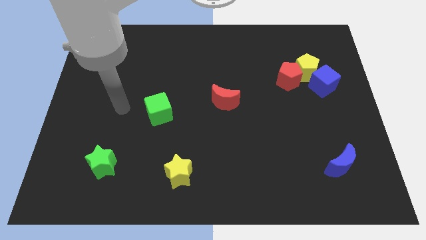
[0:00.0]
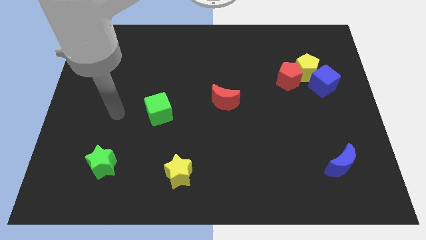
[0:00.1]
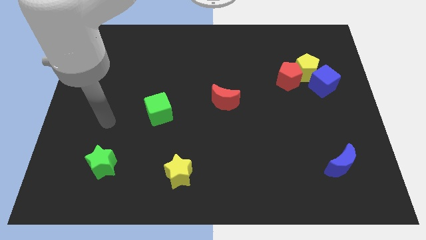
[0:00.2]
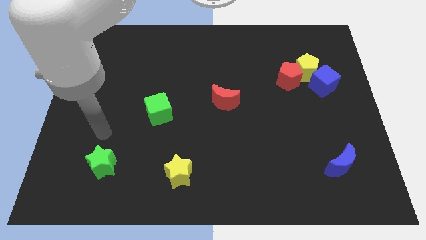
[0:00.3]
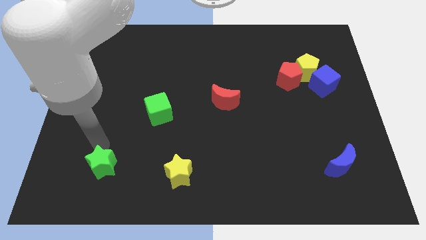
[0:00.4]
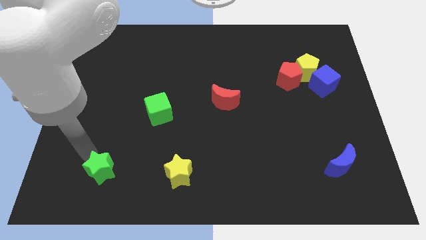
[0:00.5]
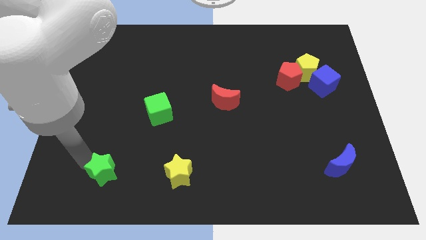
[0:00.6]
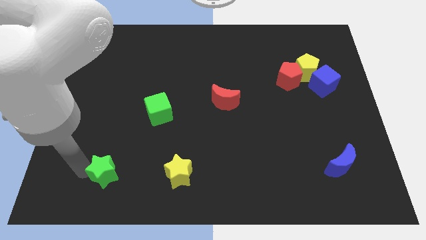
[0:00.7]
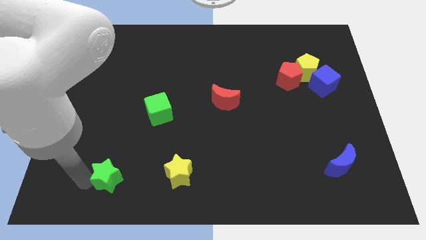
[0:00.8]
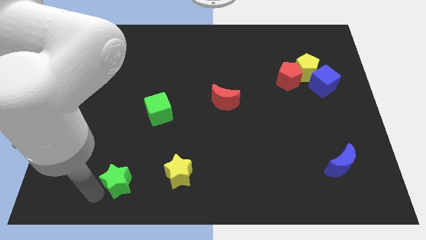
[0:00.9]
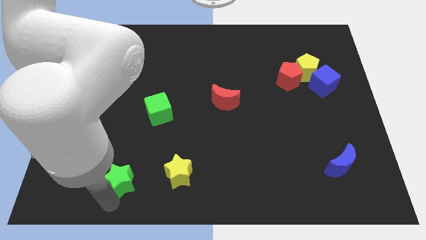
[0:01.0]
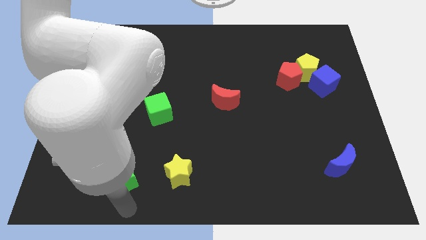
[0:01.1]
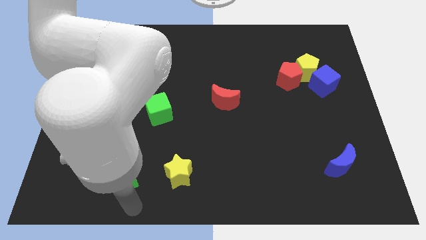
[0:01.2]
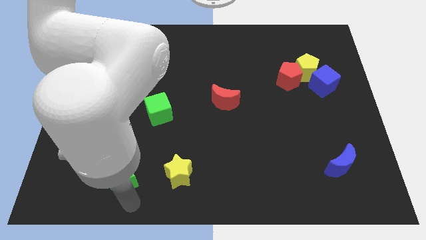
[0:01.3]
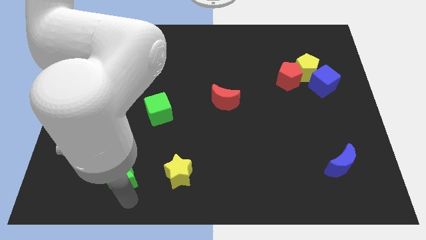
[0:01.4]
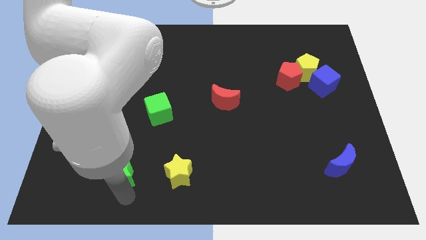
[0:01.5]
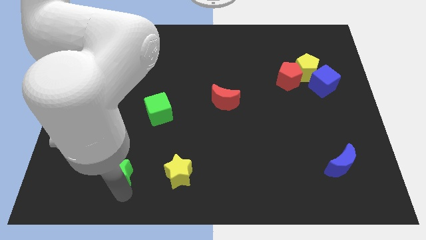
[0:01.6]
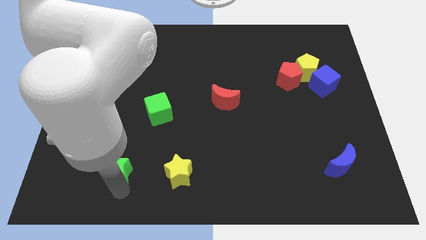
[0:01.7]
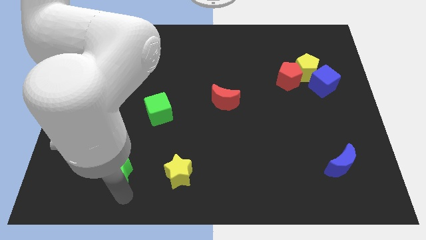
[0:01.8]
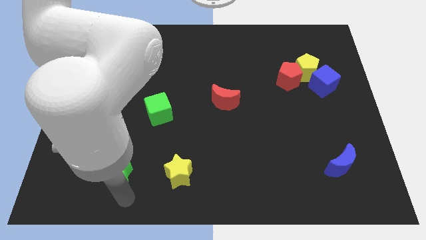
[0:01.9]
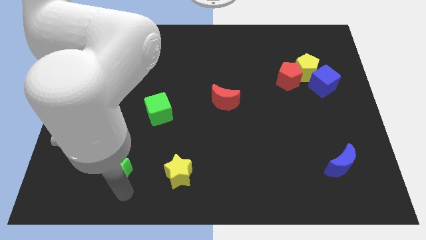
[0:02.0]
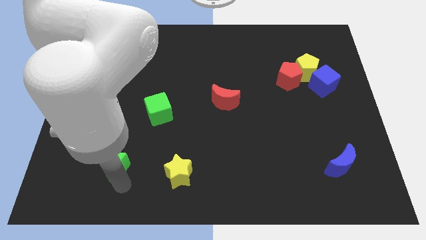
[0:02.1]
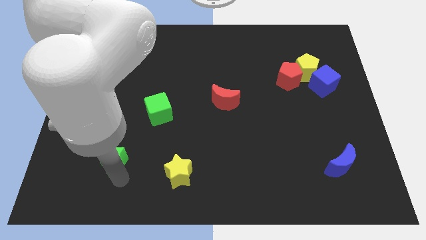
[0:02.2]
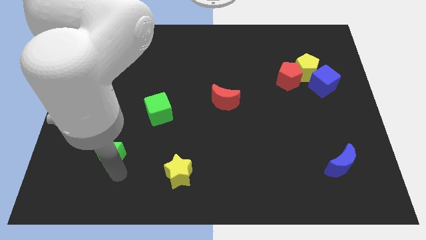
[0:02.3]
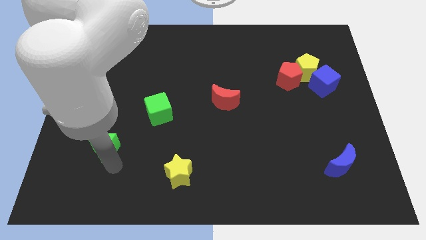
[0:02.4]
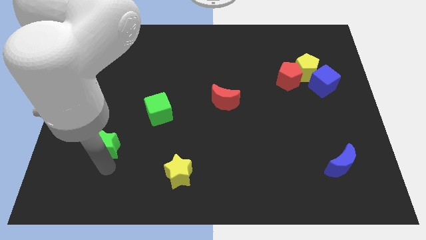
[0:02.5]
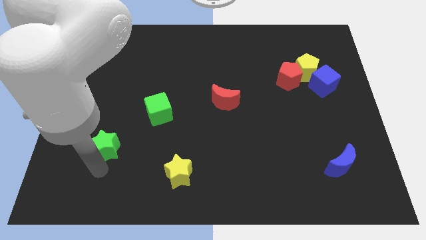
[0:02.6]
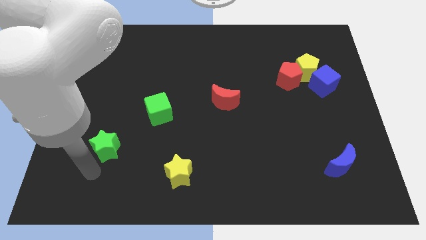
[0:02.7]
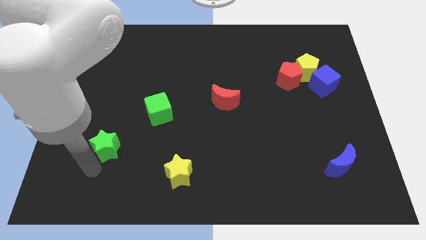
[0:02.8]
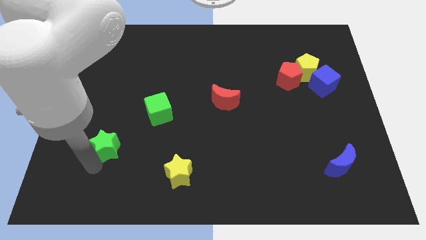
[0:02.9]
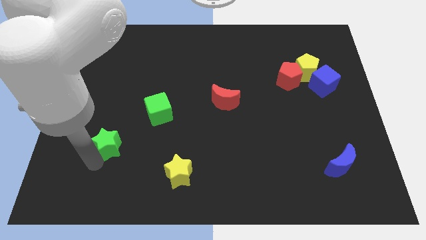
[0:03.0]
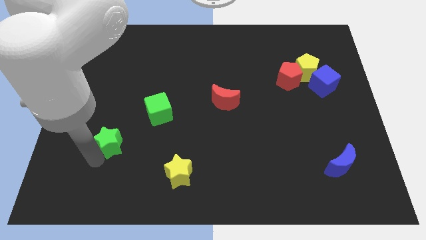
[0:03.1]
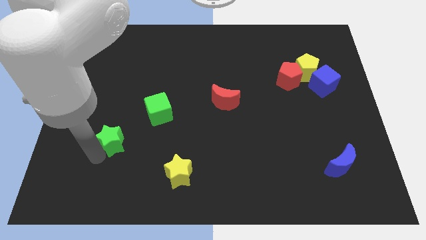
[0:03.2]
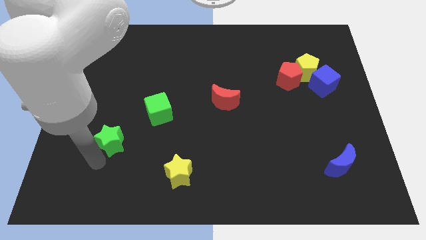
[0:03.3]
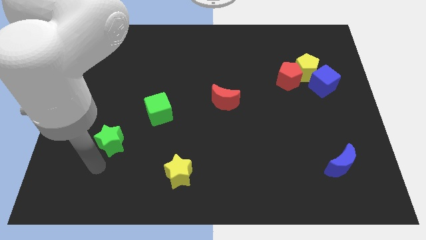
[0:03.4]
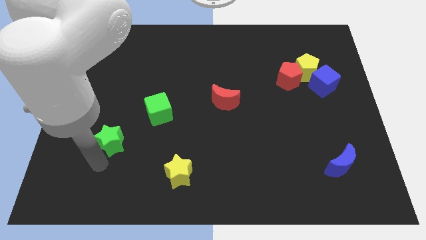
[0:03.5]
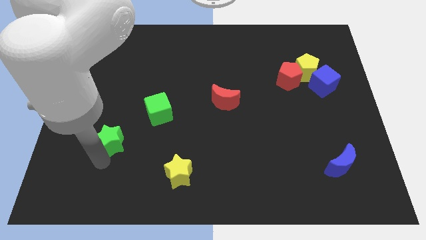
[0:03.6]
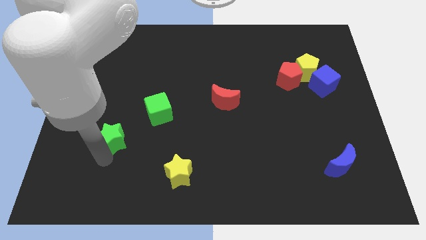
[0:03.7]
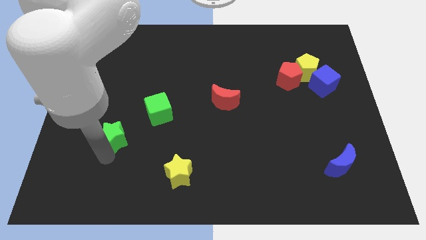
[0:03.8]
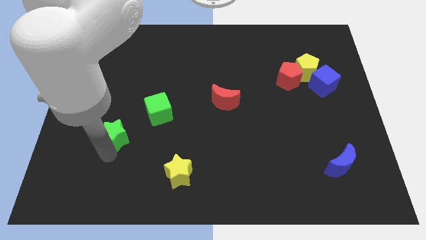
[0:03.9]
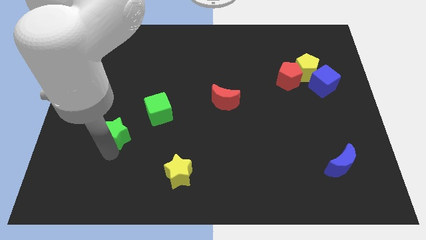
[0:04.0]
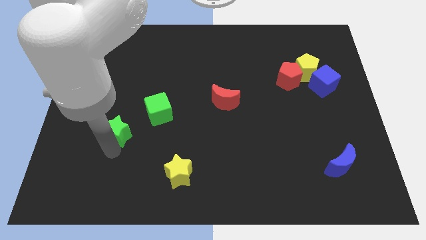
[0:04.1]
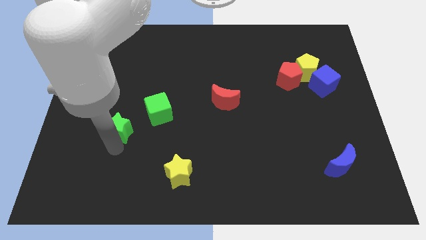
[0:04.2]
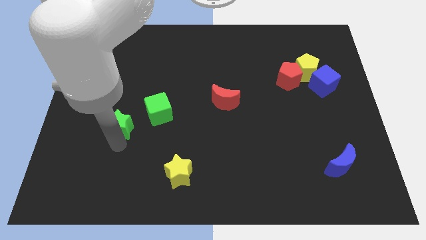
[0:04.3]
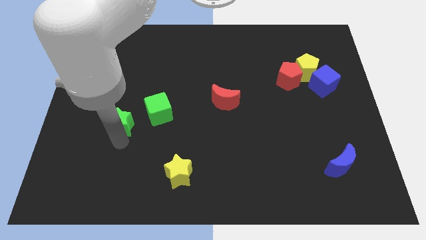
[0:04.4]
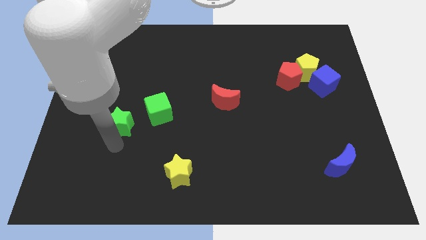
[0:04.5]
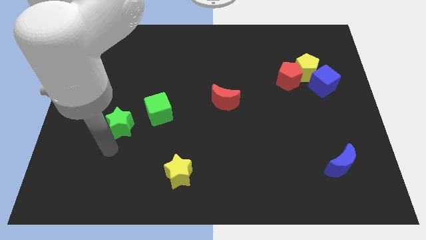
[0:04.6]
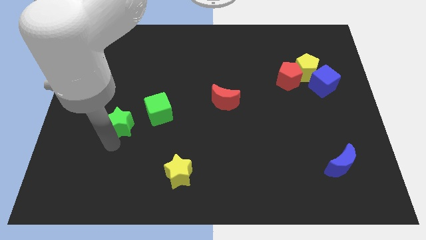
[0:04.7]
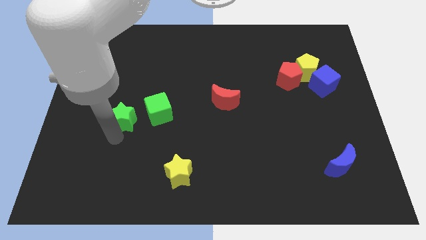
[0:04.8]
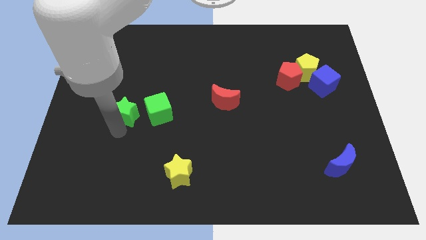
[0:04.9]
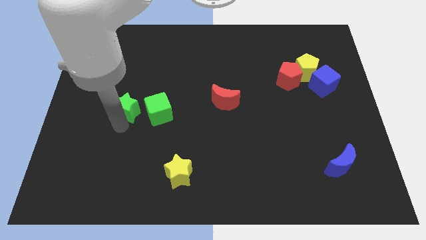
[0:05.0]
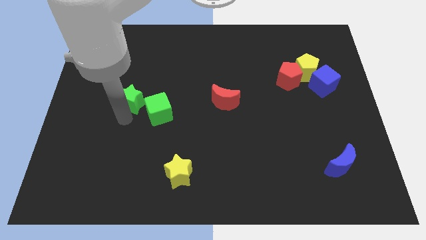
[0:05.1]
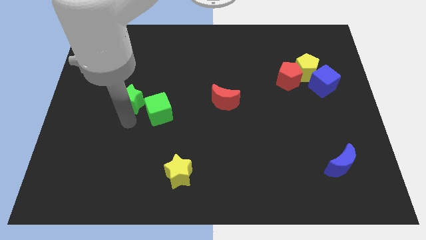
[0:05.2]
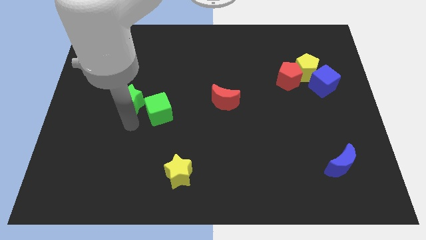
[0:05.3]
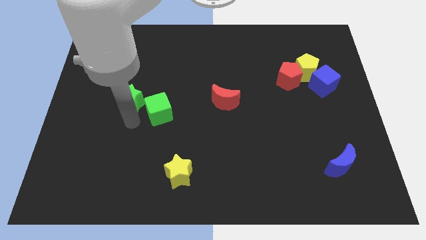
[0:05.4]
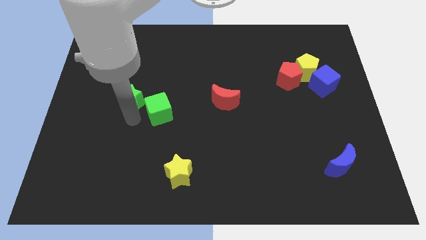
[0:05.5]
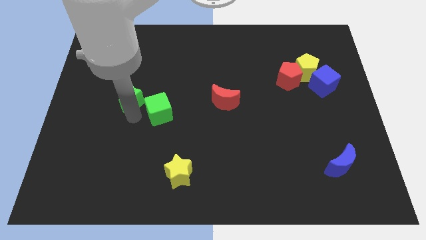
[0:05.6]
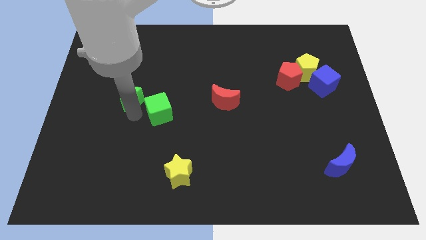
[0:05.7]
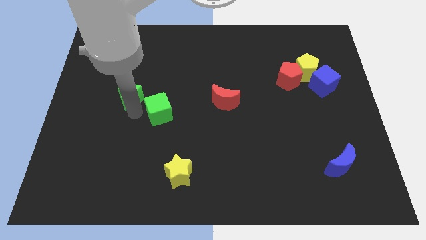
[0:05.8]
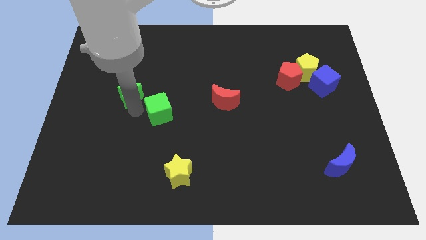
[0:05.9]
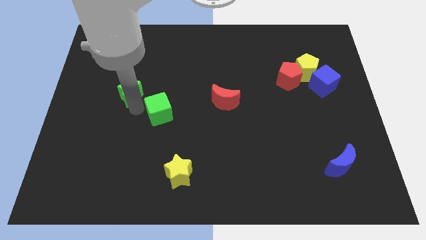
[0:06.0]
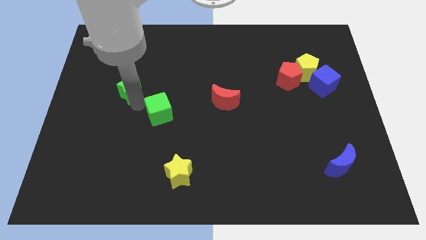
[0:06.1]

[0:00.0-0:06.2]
slide the green star up

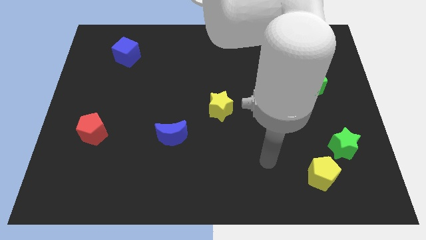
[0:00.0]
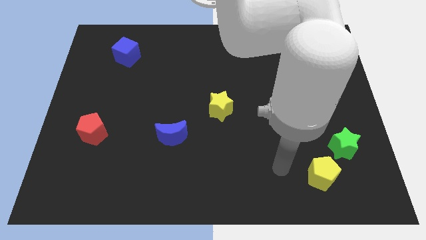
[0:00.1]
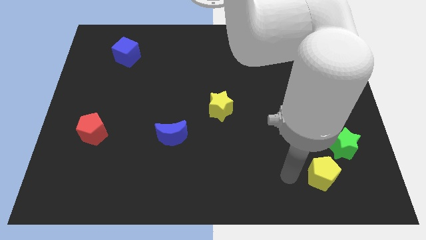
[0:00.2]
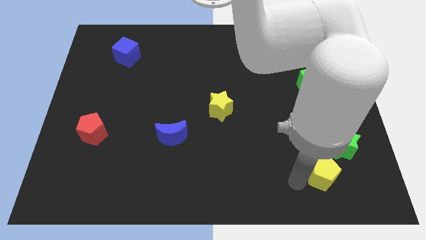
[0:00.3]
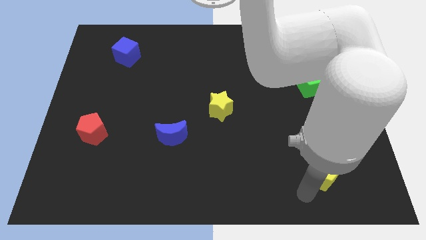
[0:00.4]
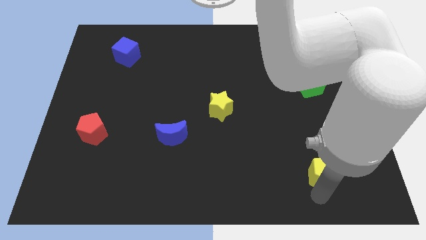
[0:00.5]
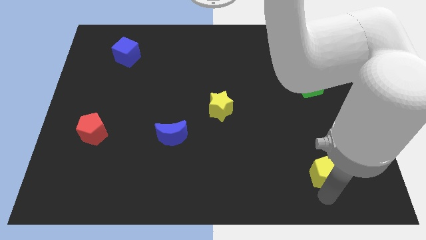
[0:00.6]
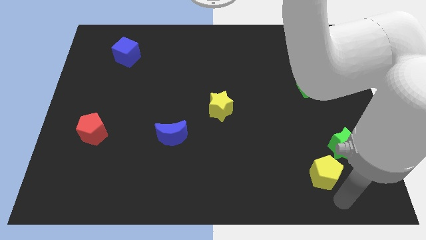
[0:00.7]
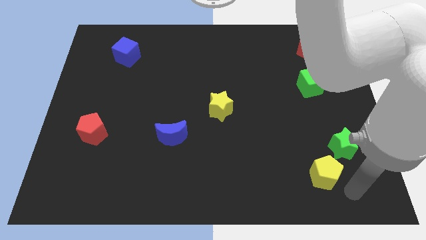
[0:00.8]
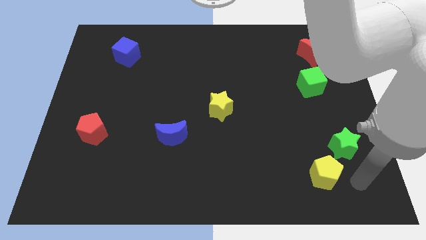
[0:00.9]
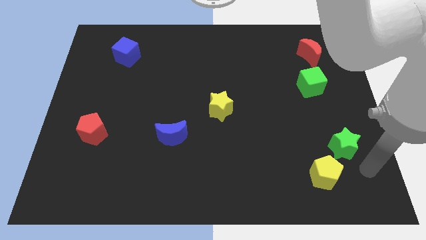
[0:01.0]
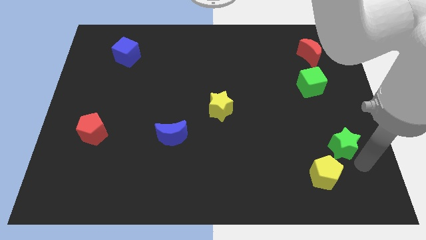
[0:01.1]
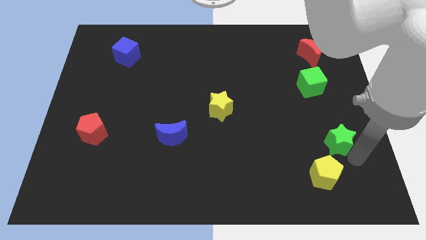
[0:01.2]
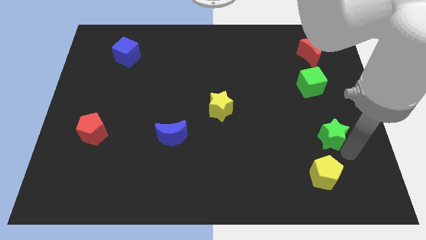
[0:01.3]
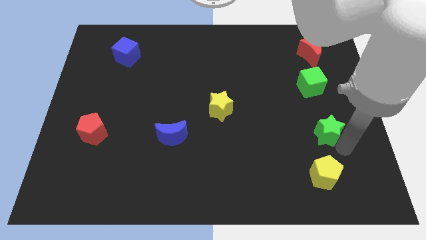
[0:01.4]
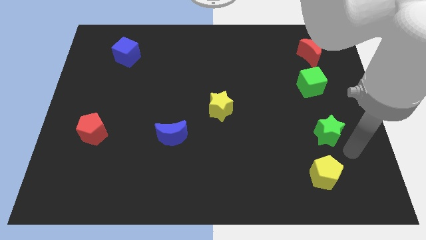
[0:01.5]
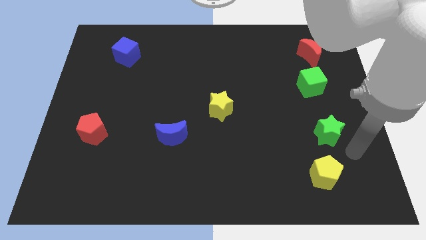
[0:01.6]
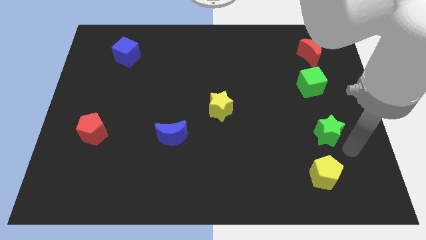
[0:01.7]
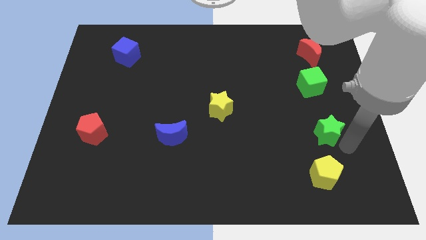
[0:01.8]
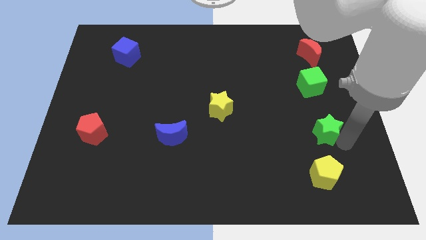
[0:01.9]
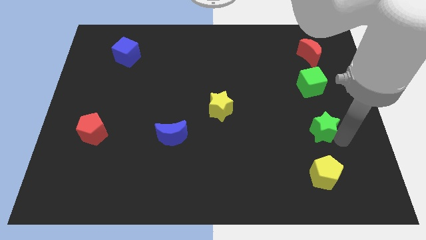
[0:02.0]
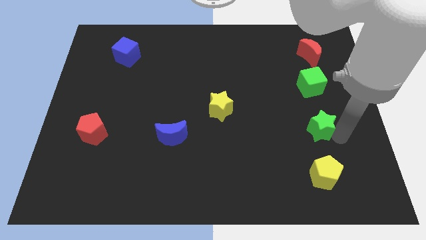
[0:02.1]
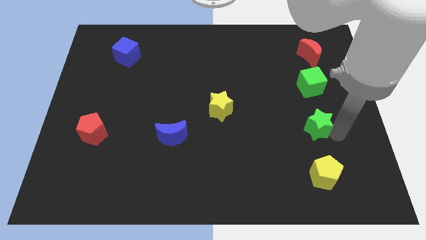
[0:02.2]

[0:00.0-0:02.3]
slightly slide the green star up and then to the left

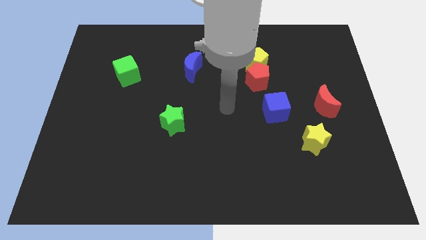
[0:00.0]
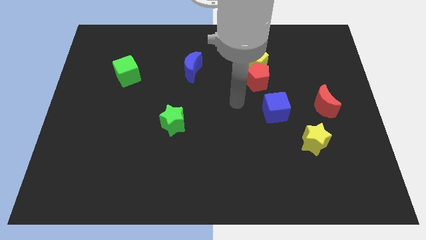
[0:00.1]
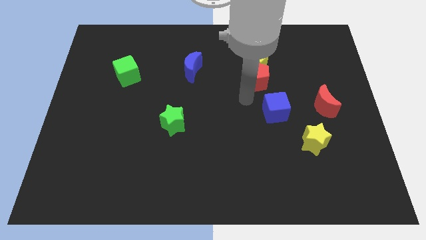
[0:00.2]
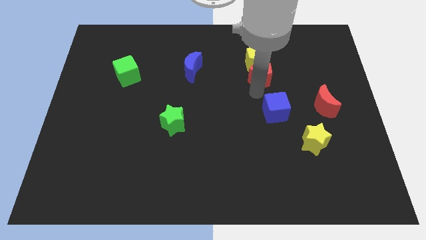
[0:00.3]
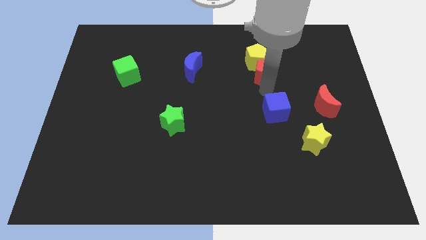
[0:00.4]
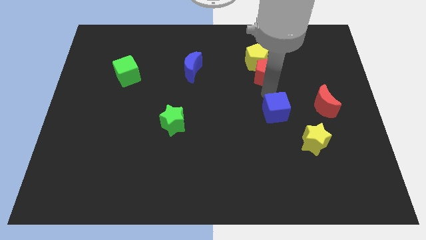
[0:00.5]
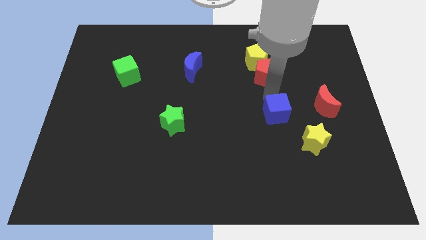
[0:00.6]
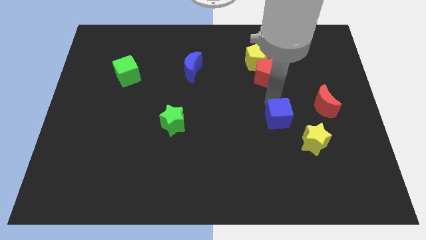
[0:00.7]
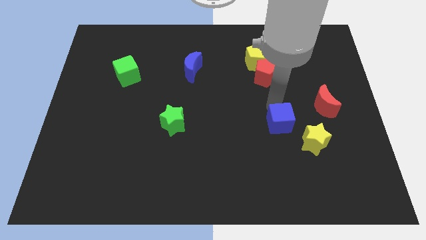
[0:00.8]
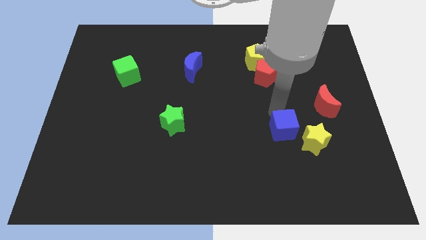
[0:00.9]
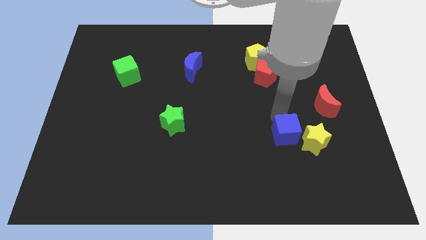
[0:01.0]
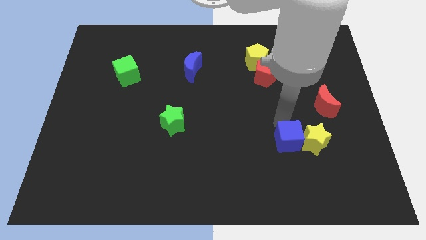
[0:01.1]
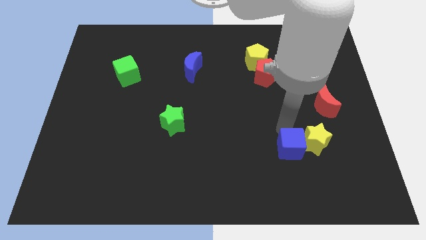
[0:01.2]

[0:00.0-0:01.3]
move the blue cube a little bit downwards and then right
